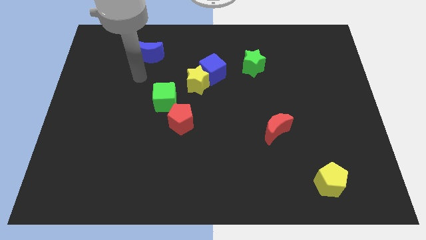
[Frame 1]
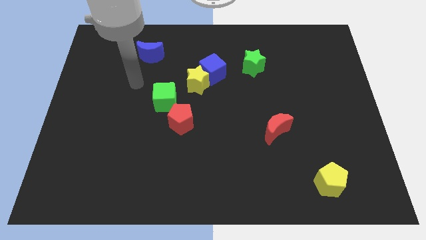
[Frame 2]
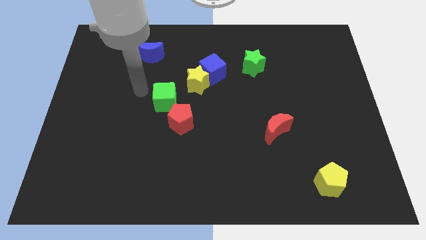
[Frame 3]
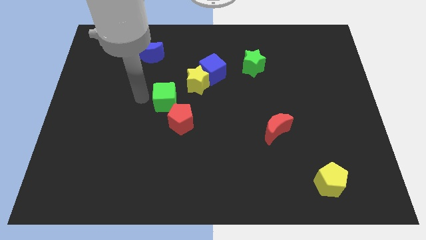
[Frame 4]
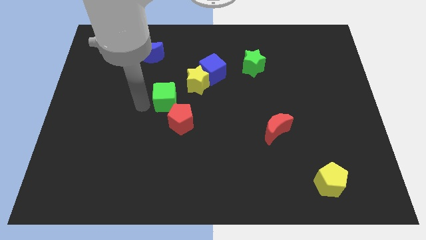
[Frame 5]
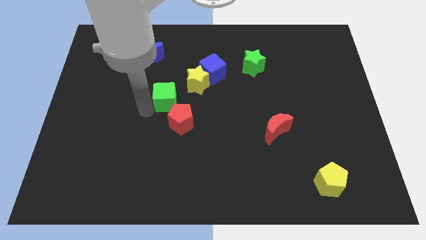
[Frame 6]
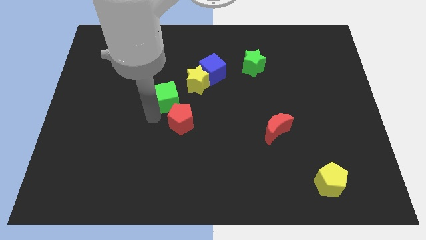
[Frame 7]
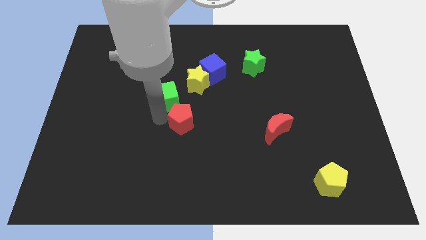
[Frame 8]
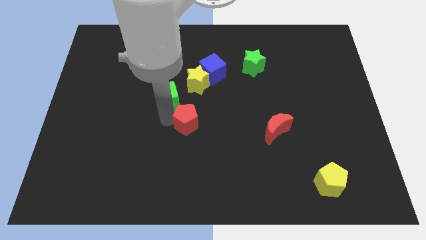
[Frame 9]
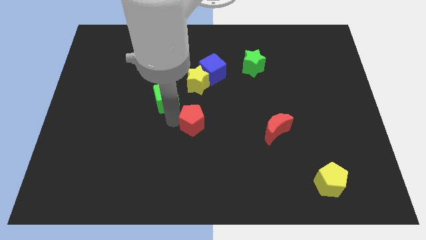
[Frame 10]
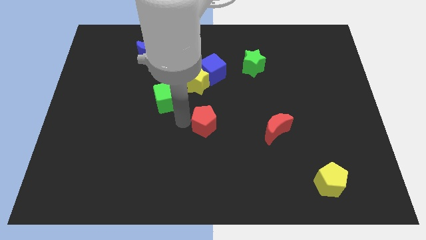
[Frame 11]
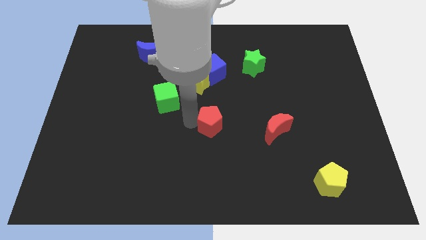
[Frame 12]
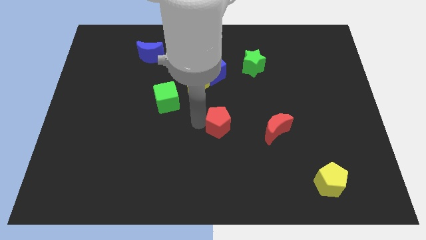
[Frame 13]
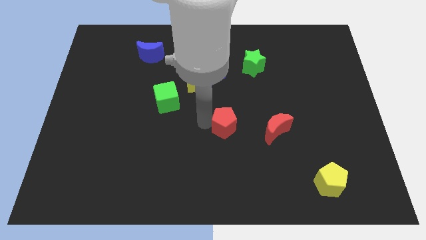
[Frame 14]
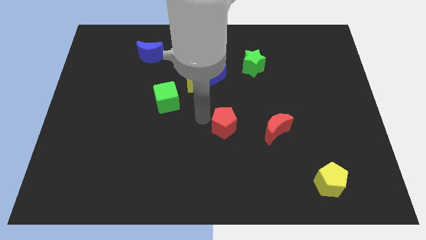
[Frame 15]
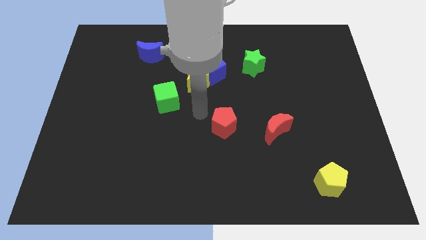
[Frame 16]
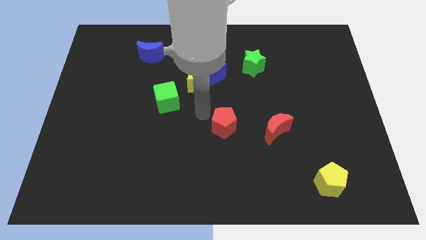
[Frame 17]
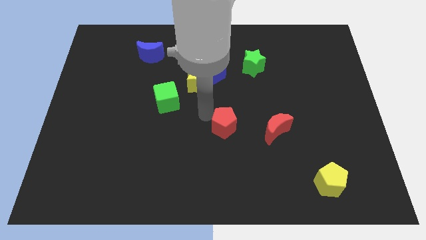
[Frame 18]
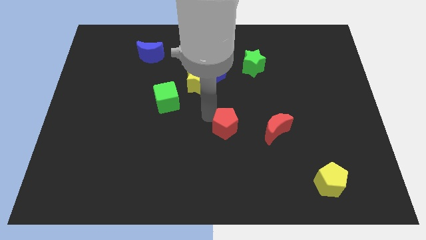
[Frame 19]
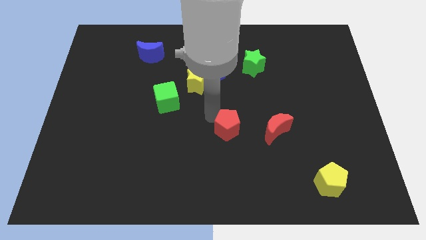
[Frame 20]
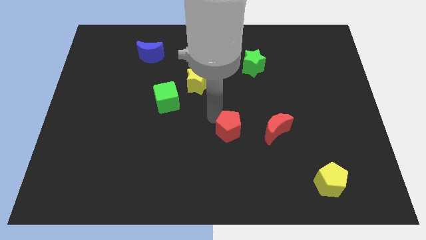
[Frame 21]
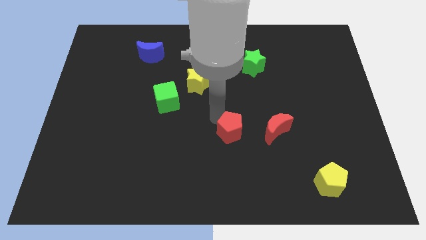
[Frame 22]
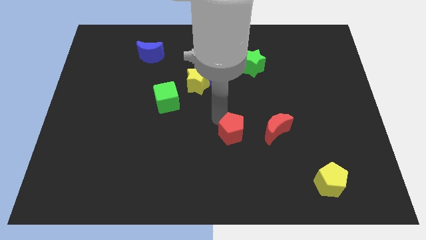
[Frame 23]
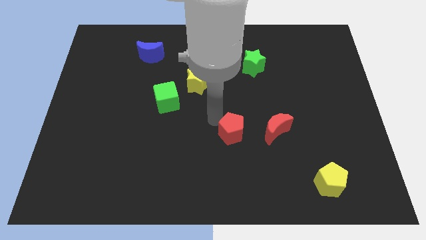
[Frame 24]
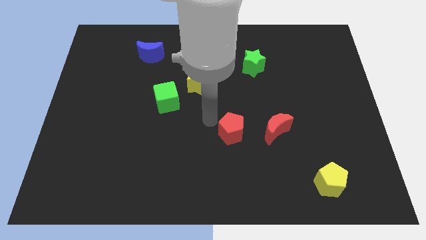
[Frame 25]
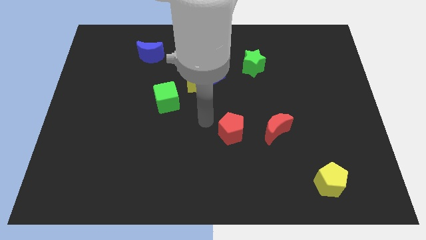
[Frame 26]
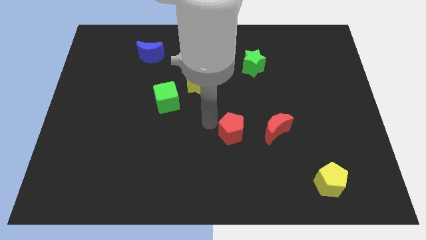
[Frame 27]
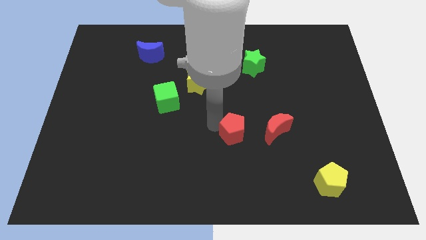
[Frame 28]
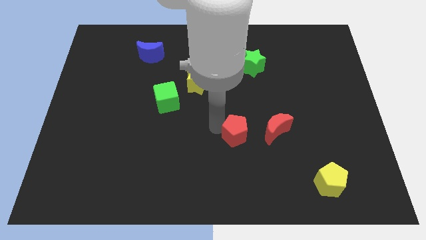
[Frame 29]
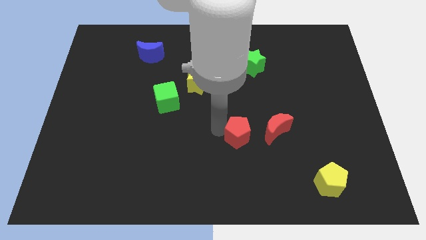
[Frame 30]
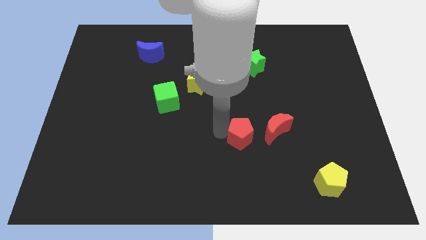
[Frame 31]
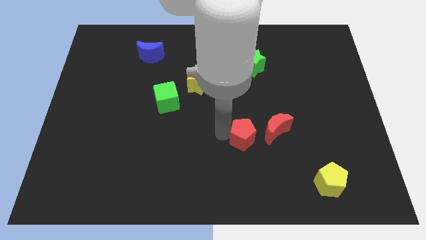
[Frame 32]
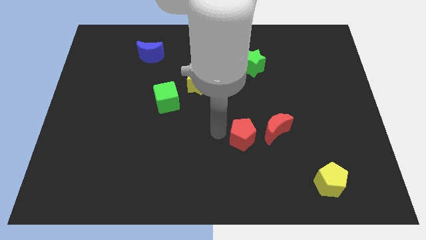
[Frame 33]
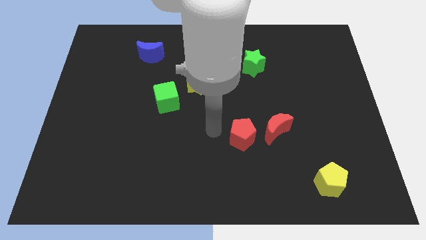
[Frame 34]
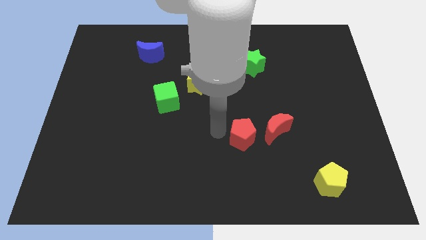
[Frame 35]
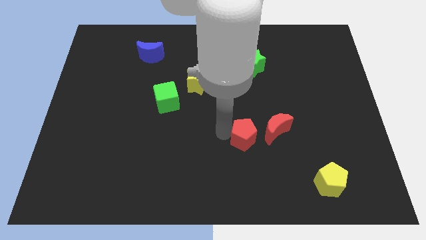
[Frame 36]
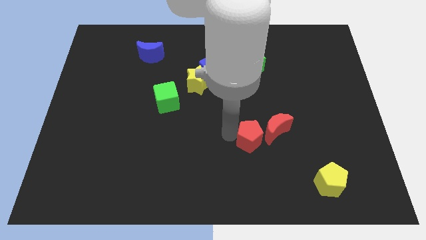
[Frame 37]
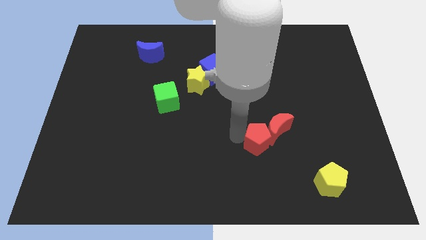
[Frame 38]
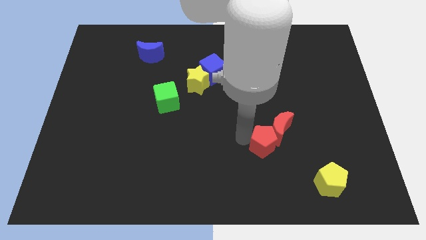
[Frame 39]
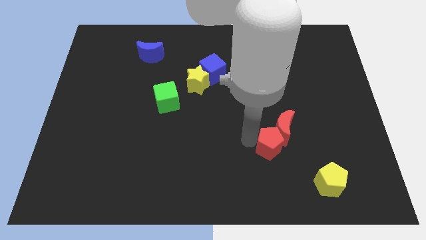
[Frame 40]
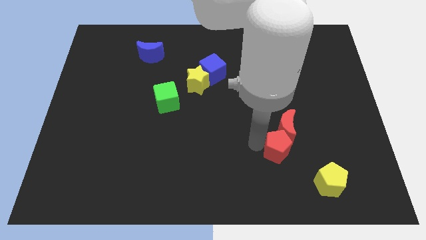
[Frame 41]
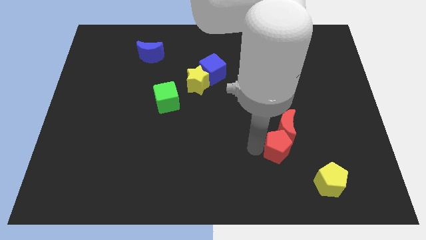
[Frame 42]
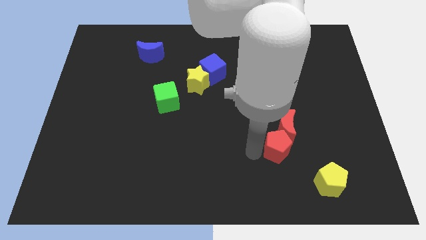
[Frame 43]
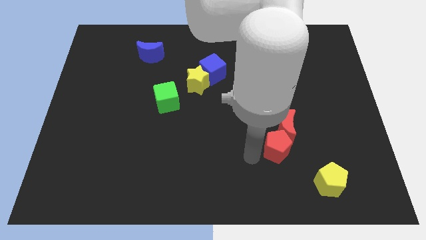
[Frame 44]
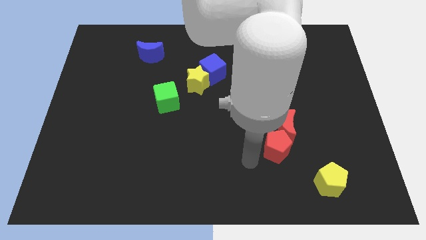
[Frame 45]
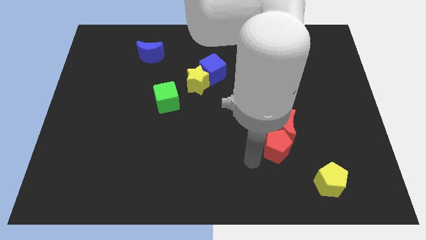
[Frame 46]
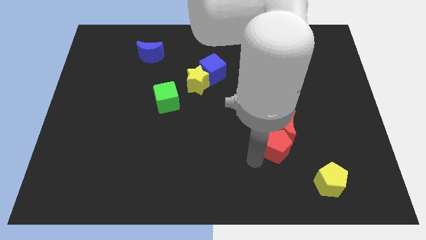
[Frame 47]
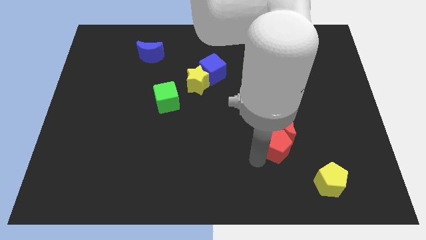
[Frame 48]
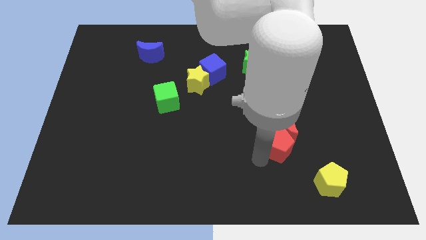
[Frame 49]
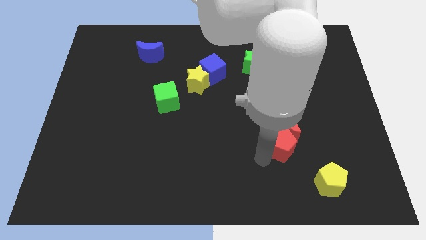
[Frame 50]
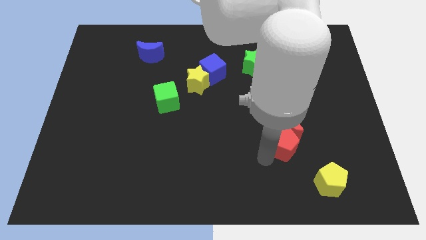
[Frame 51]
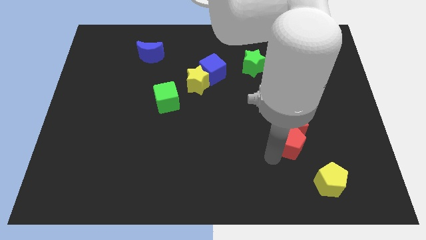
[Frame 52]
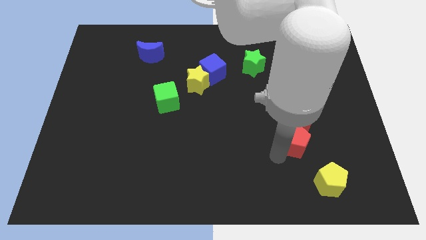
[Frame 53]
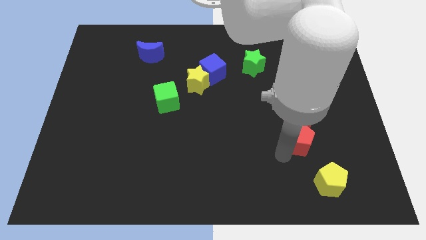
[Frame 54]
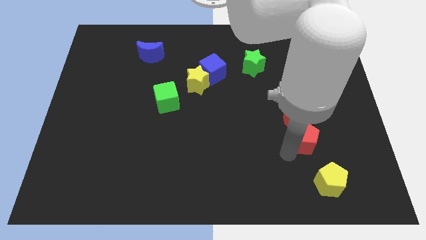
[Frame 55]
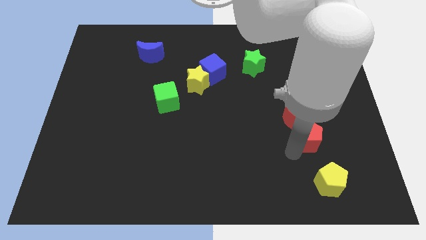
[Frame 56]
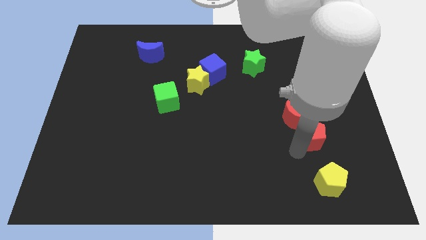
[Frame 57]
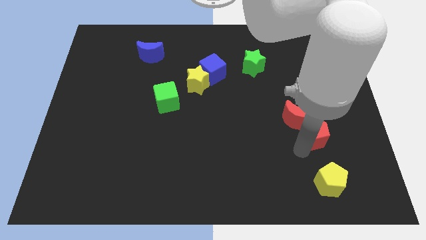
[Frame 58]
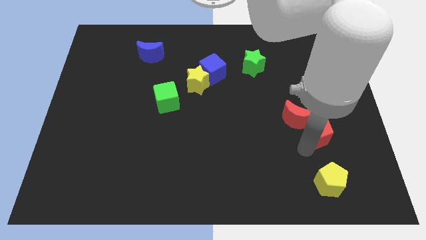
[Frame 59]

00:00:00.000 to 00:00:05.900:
move the red pentagon to the right of the red moon

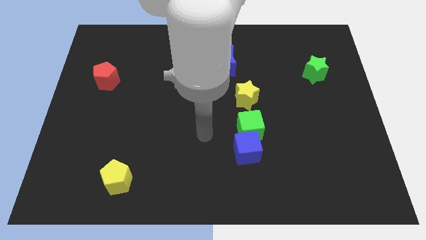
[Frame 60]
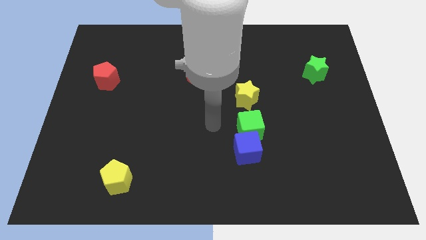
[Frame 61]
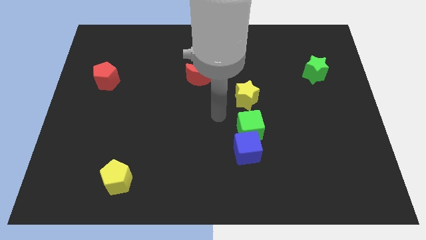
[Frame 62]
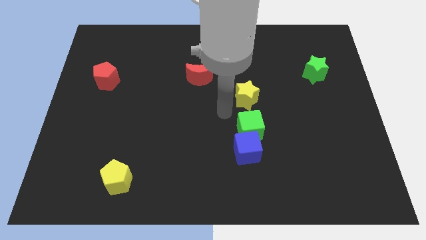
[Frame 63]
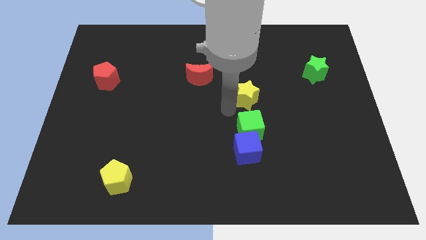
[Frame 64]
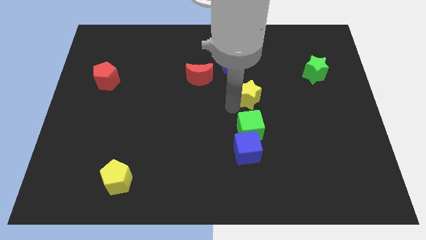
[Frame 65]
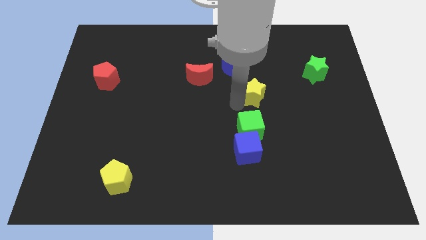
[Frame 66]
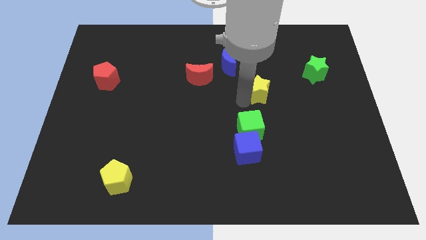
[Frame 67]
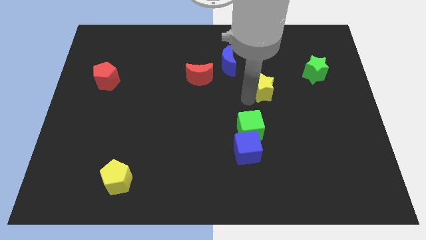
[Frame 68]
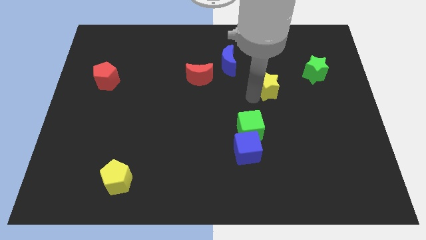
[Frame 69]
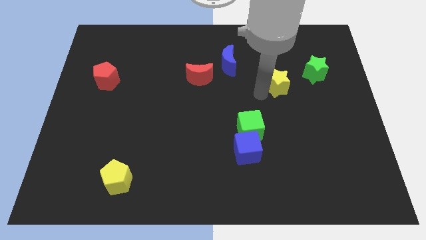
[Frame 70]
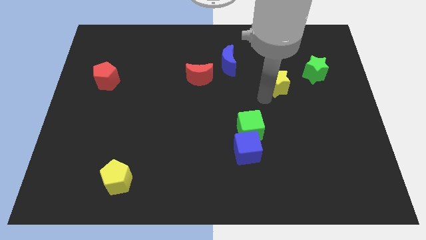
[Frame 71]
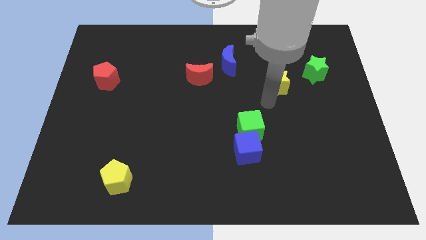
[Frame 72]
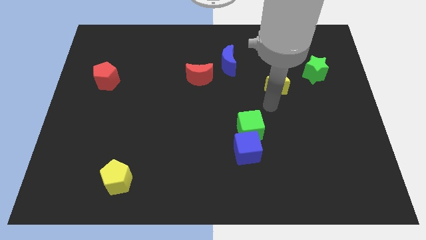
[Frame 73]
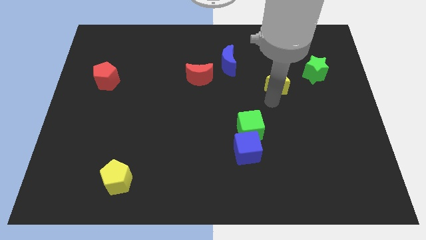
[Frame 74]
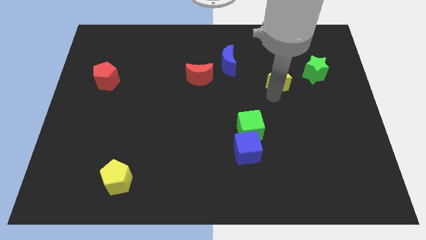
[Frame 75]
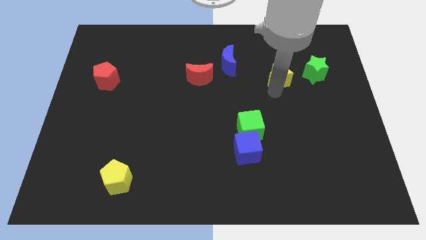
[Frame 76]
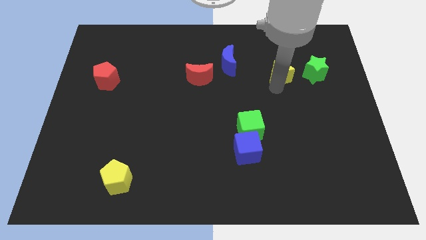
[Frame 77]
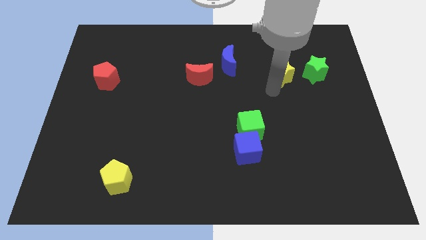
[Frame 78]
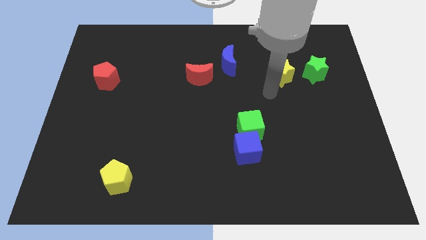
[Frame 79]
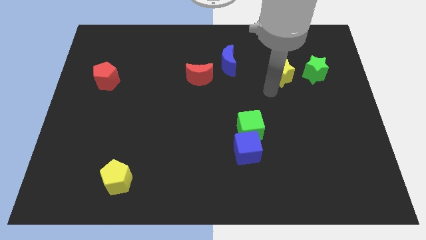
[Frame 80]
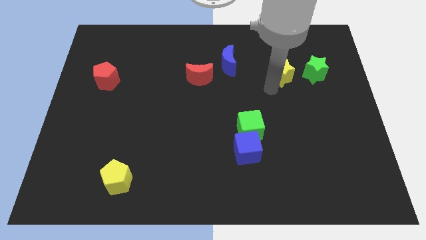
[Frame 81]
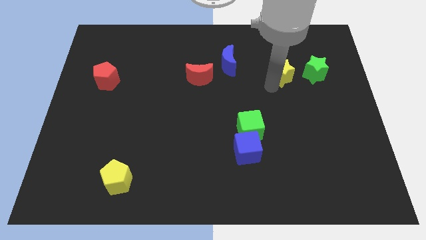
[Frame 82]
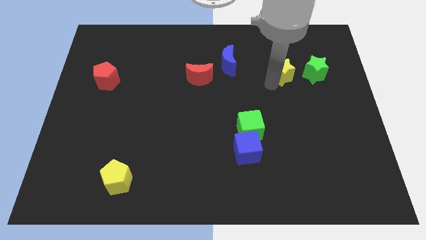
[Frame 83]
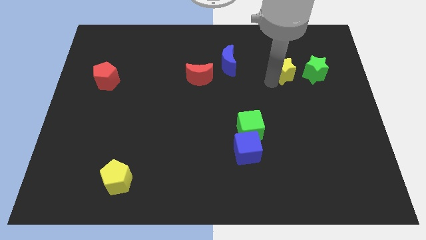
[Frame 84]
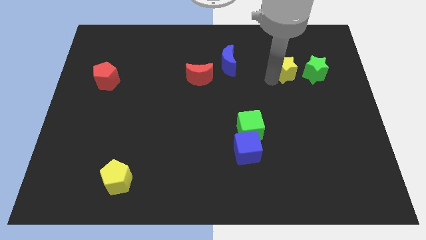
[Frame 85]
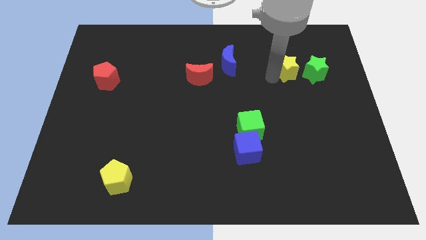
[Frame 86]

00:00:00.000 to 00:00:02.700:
put the yellow star diagonally up and to the left of the green star
